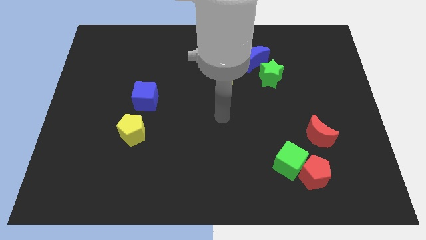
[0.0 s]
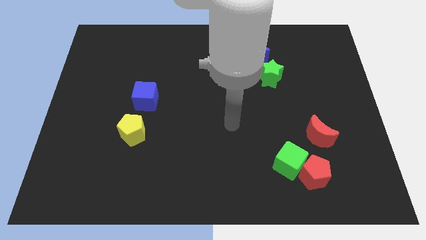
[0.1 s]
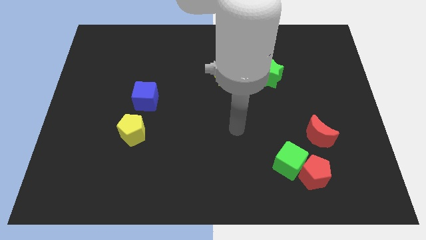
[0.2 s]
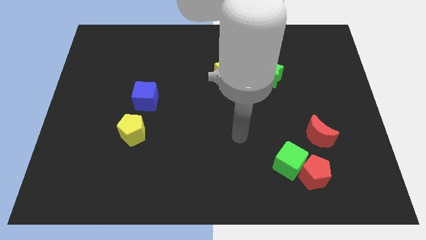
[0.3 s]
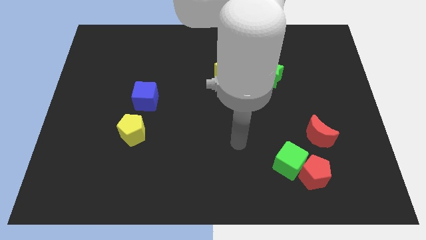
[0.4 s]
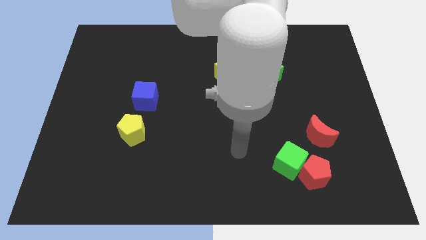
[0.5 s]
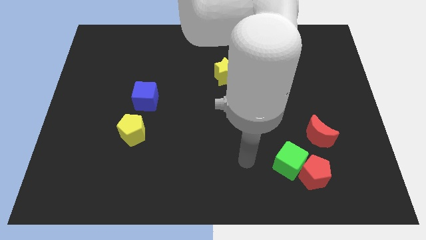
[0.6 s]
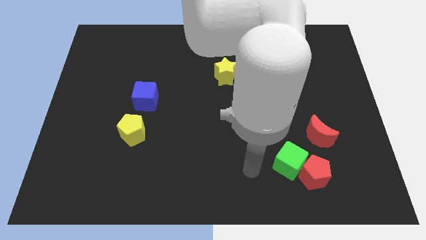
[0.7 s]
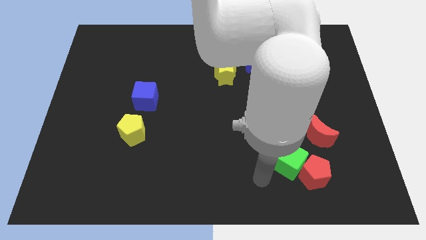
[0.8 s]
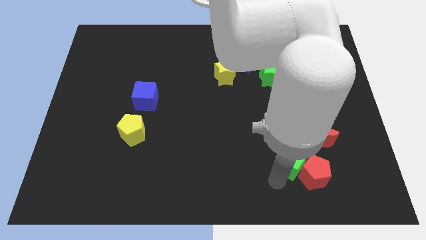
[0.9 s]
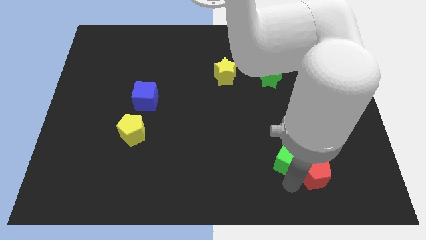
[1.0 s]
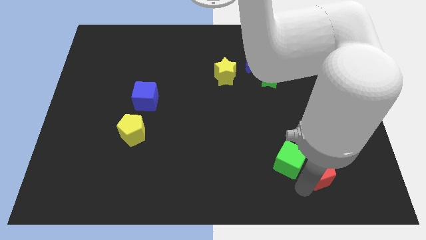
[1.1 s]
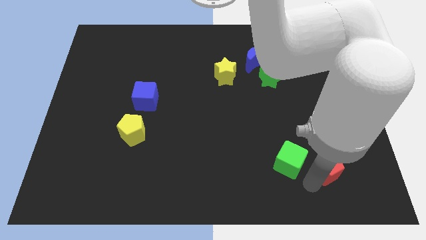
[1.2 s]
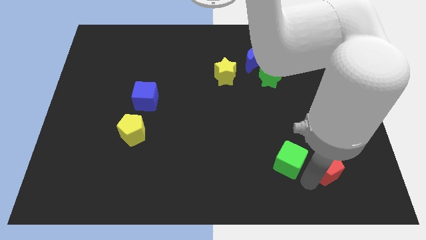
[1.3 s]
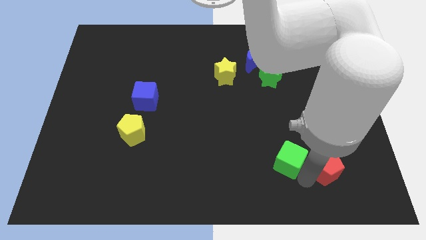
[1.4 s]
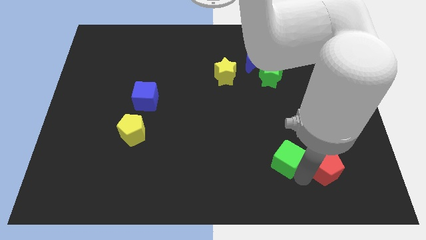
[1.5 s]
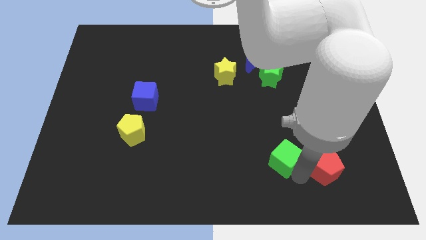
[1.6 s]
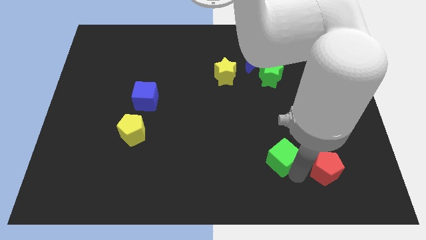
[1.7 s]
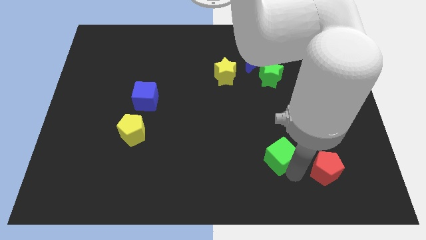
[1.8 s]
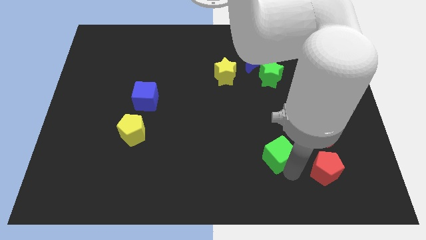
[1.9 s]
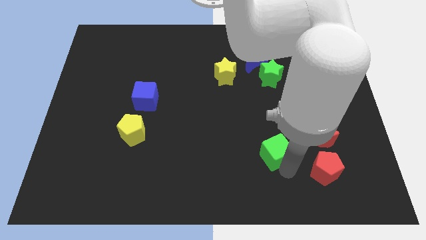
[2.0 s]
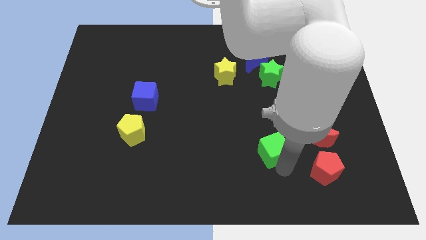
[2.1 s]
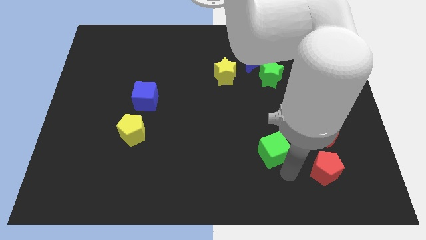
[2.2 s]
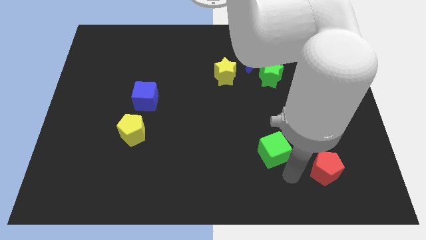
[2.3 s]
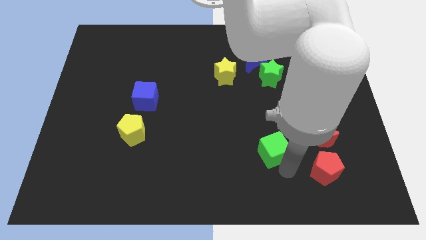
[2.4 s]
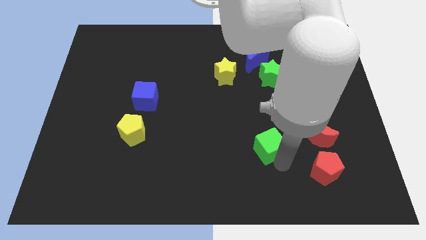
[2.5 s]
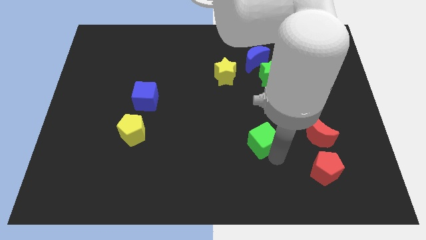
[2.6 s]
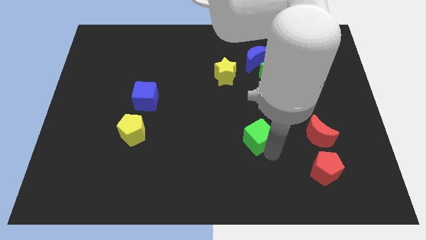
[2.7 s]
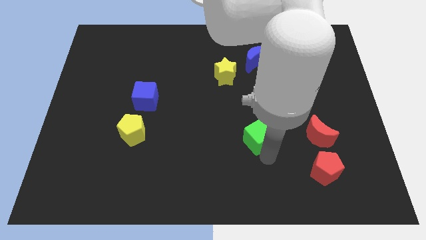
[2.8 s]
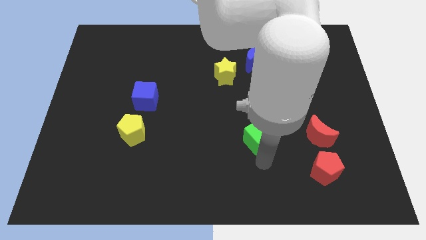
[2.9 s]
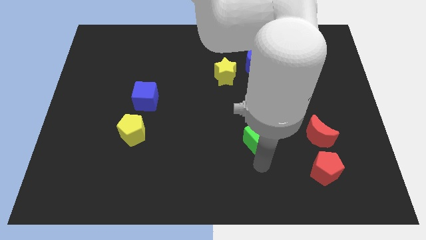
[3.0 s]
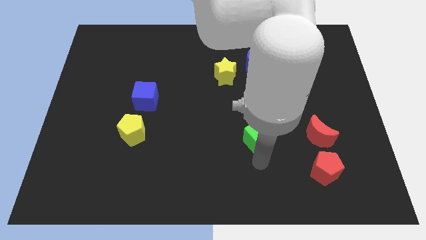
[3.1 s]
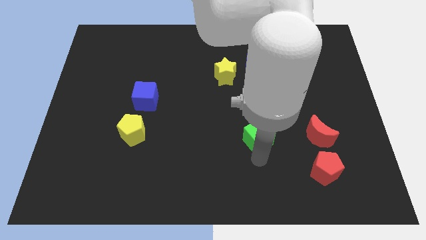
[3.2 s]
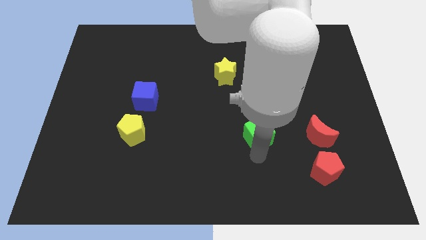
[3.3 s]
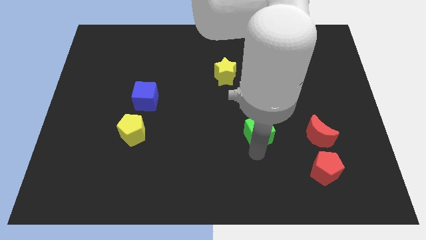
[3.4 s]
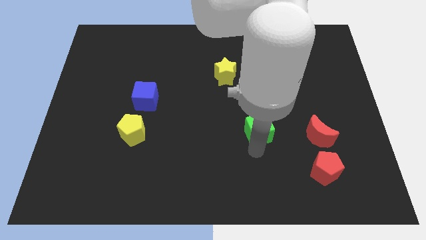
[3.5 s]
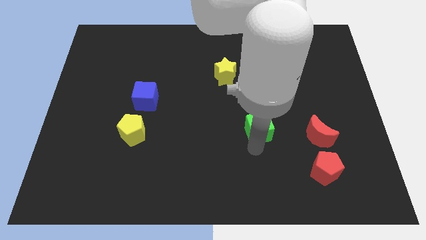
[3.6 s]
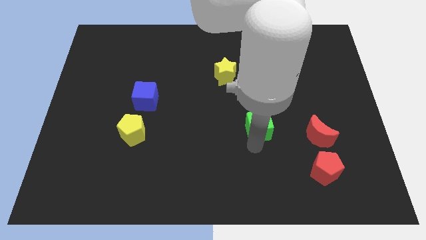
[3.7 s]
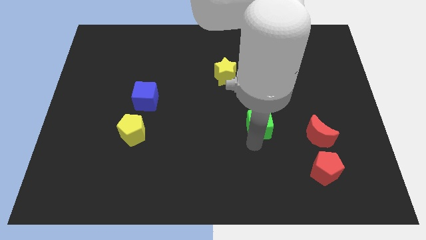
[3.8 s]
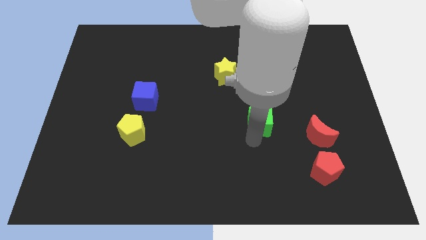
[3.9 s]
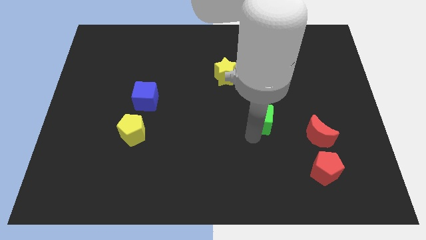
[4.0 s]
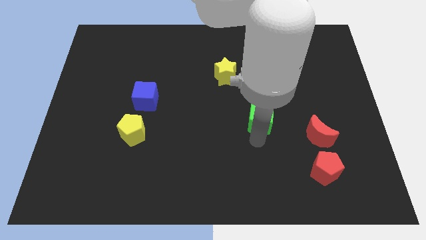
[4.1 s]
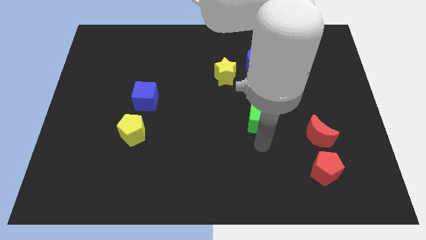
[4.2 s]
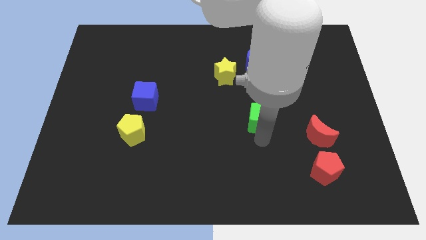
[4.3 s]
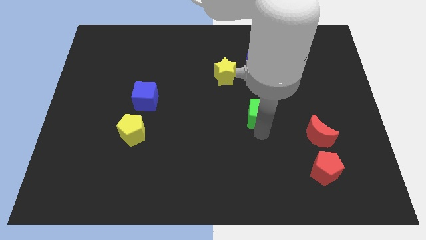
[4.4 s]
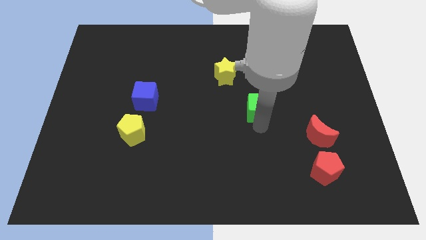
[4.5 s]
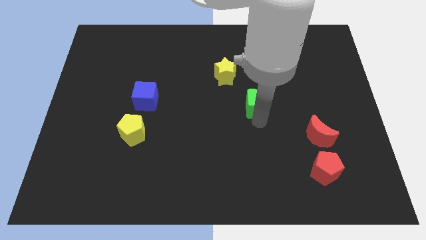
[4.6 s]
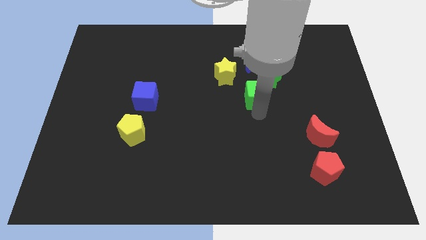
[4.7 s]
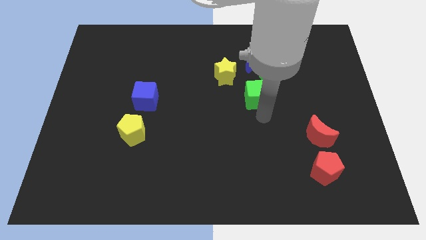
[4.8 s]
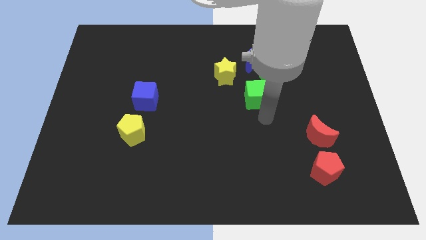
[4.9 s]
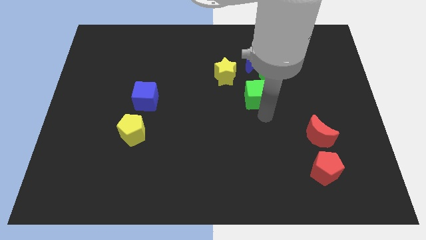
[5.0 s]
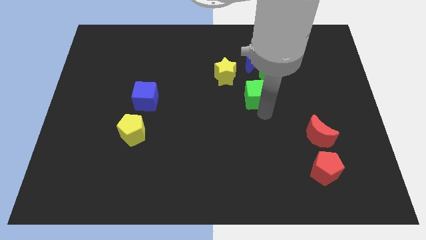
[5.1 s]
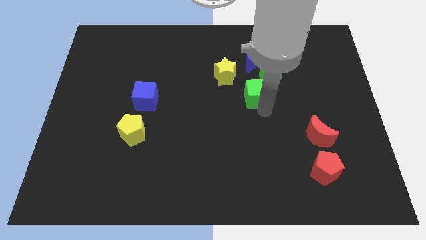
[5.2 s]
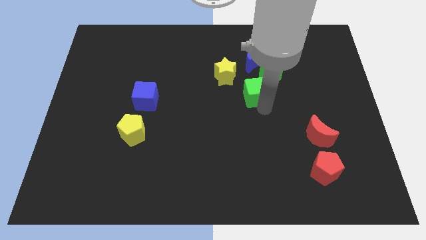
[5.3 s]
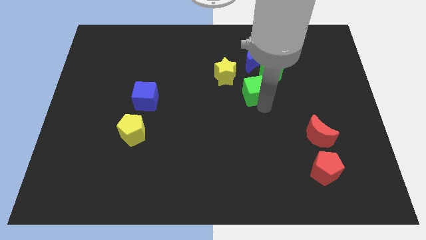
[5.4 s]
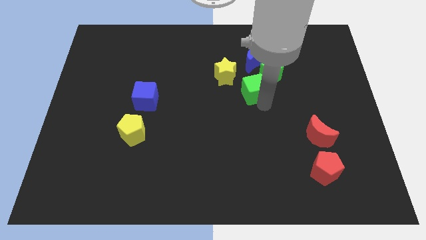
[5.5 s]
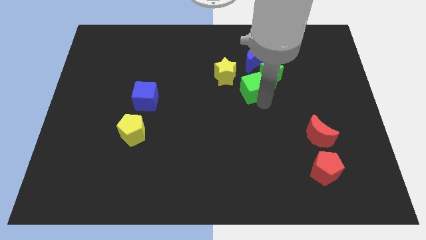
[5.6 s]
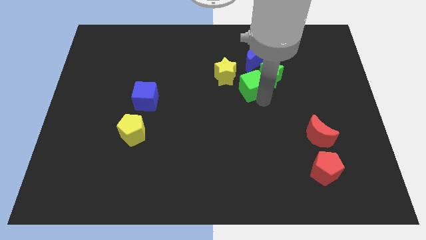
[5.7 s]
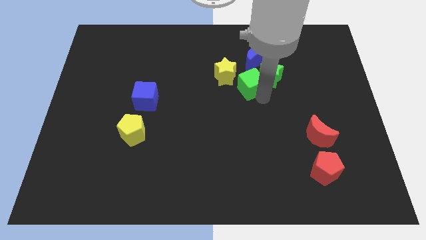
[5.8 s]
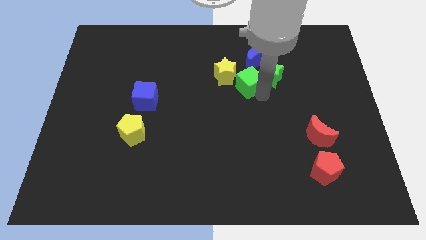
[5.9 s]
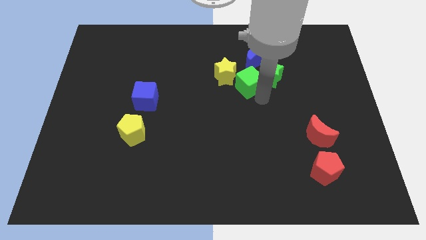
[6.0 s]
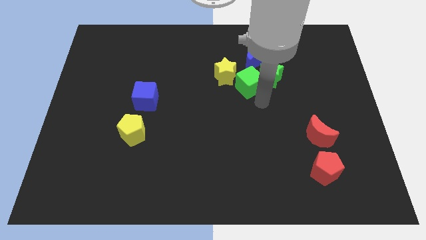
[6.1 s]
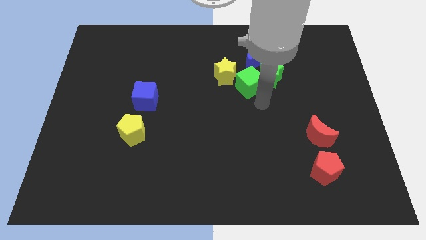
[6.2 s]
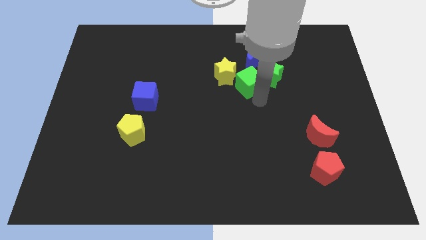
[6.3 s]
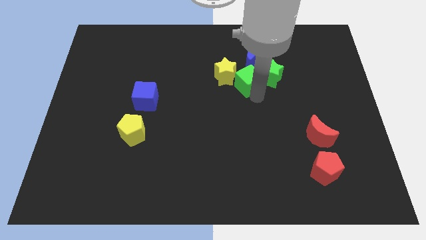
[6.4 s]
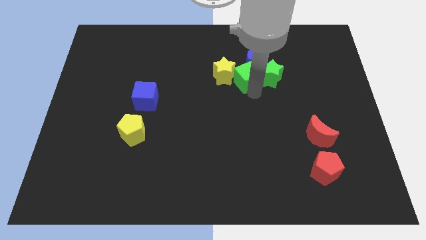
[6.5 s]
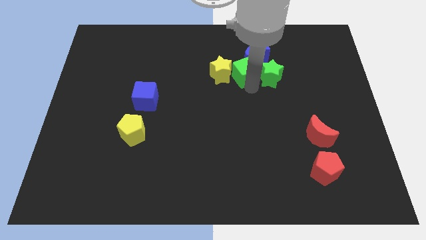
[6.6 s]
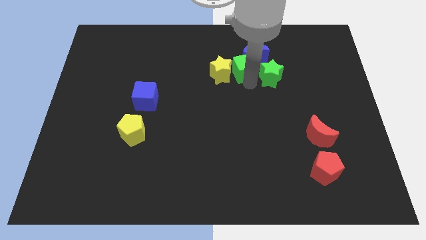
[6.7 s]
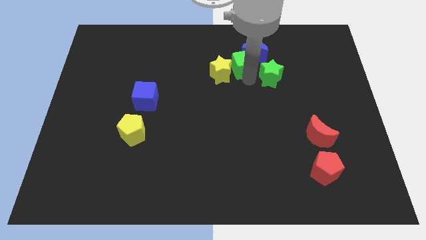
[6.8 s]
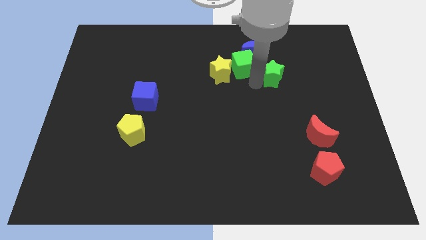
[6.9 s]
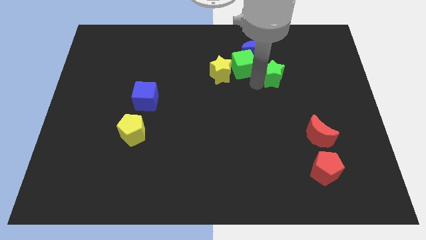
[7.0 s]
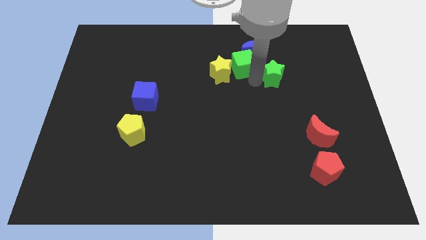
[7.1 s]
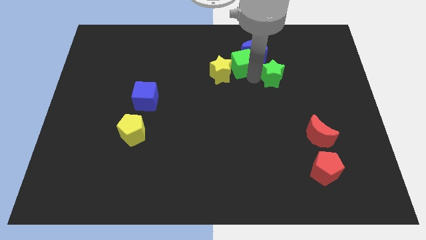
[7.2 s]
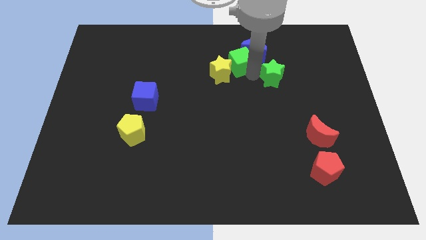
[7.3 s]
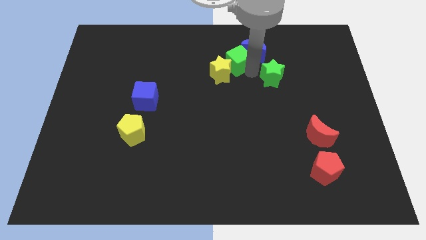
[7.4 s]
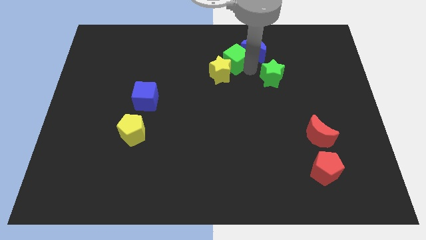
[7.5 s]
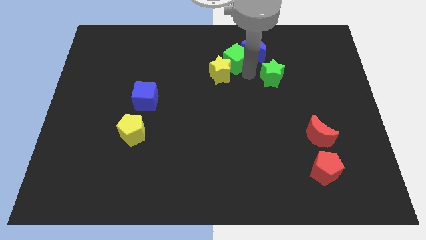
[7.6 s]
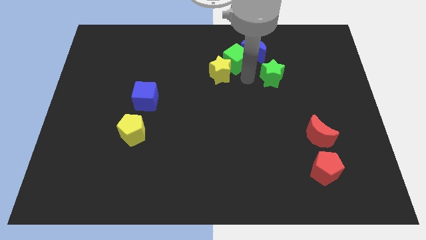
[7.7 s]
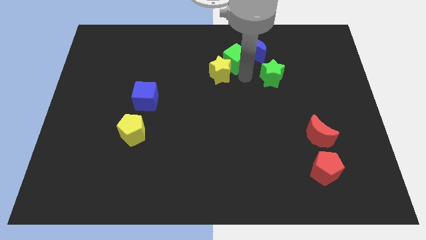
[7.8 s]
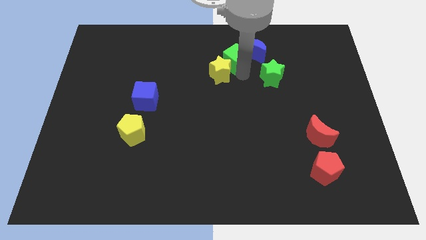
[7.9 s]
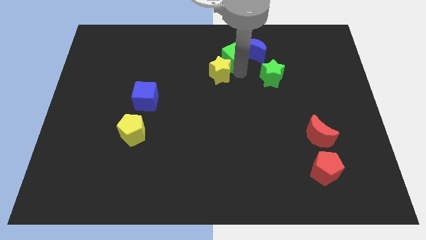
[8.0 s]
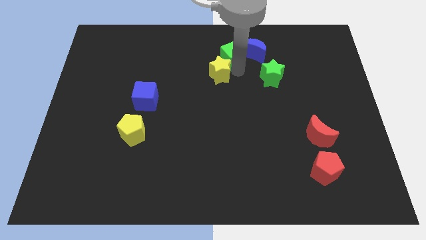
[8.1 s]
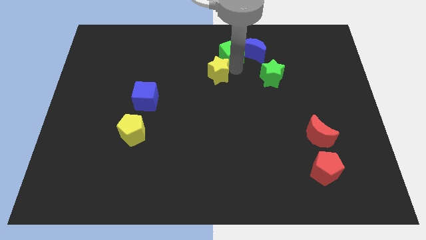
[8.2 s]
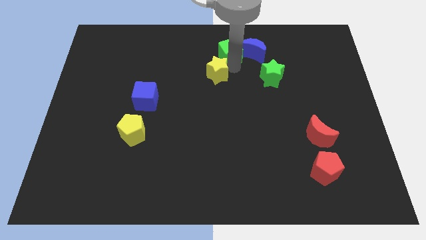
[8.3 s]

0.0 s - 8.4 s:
put the green cube to the towards your base
